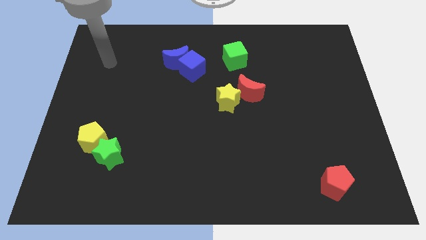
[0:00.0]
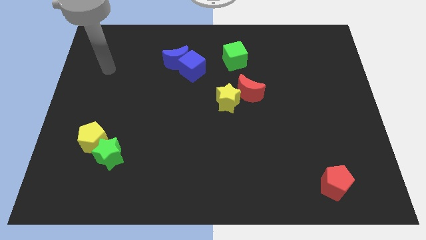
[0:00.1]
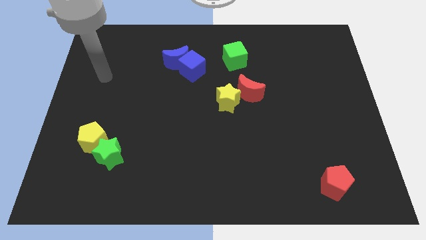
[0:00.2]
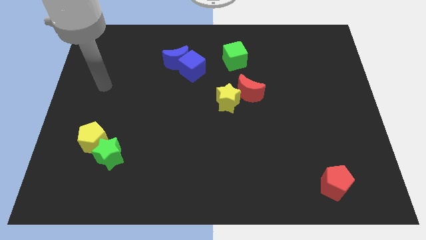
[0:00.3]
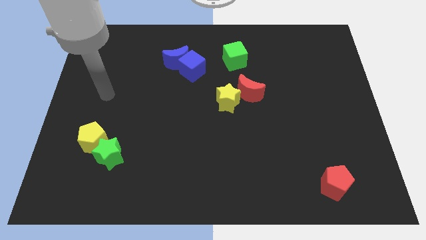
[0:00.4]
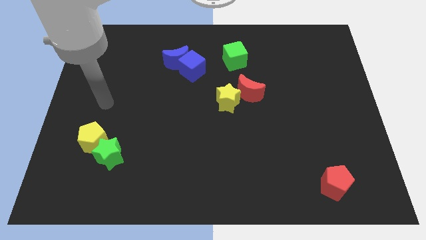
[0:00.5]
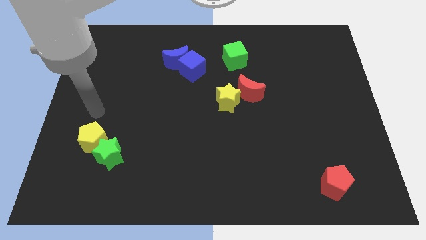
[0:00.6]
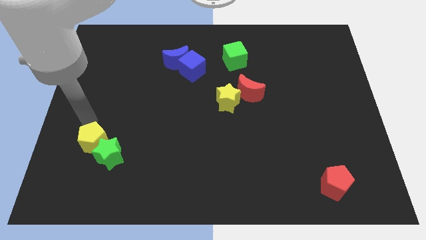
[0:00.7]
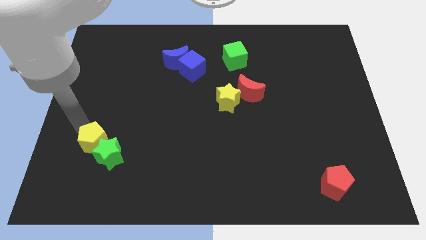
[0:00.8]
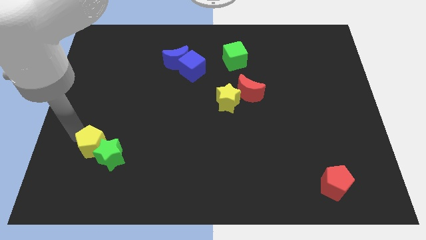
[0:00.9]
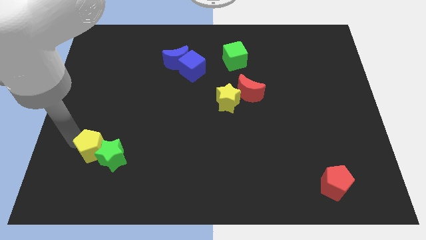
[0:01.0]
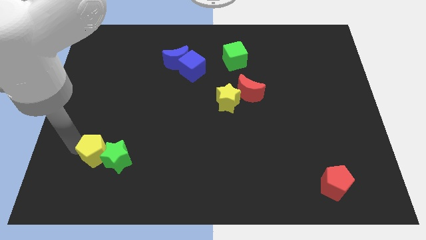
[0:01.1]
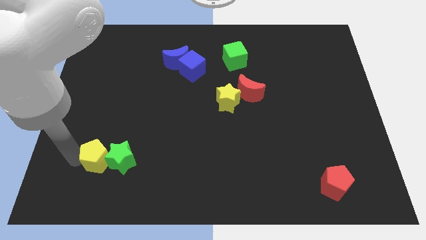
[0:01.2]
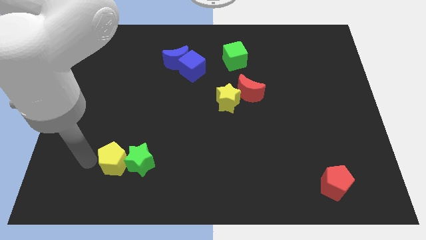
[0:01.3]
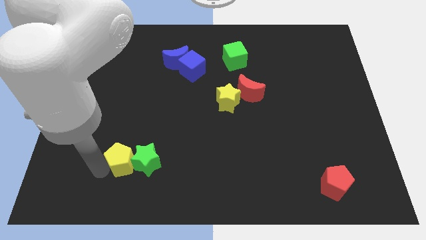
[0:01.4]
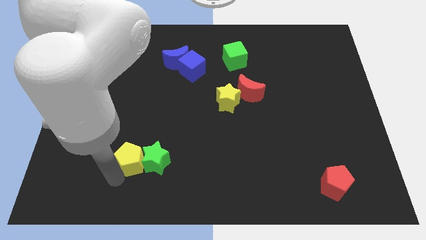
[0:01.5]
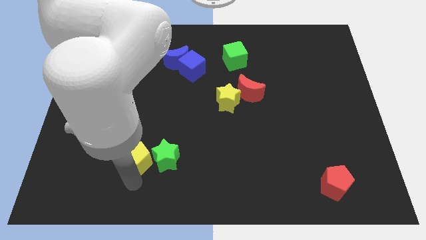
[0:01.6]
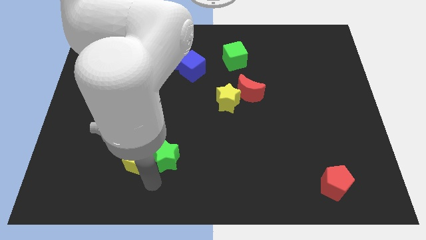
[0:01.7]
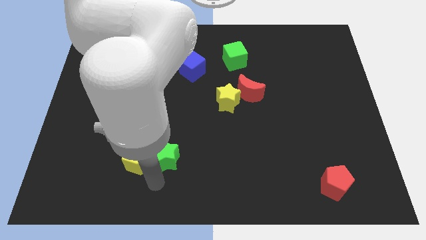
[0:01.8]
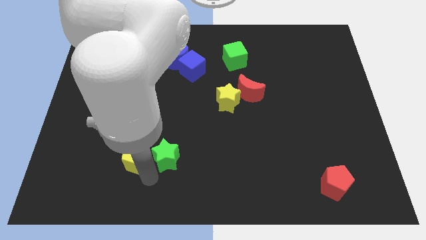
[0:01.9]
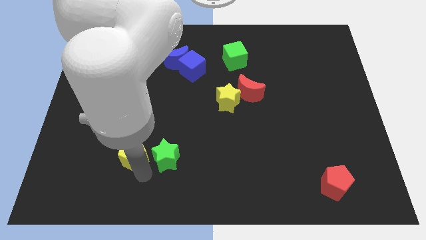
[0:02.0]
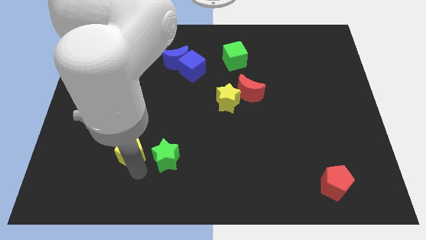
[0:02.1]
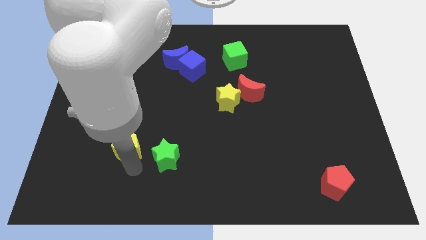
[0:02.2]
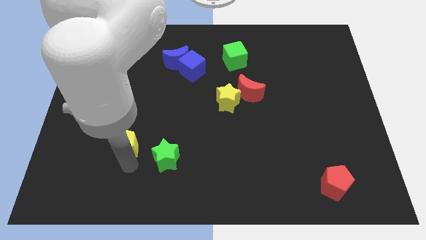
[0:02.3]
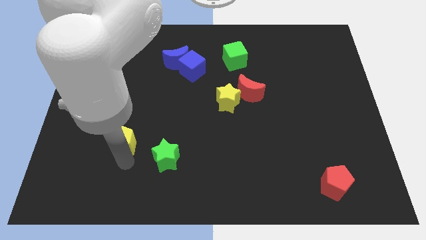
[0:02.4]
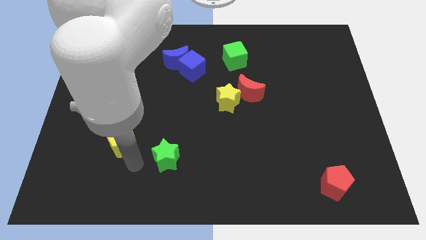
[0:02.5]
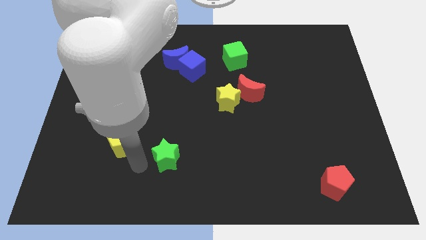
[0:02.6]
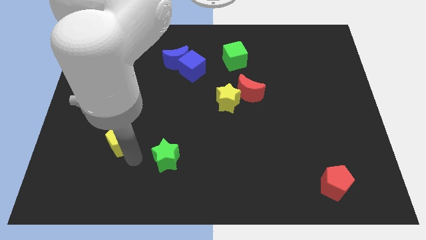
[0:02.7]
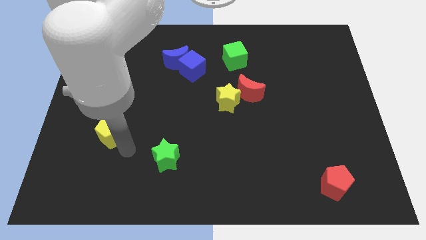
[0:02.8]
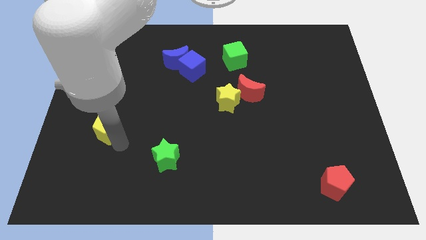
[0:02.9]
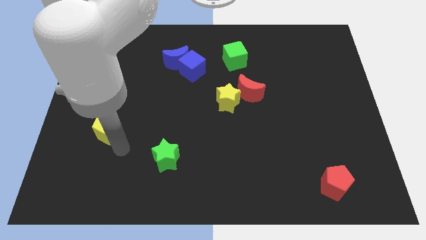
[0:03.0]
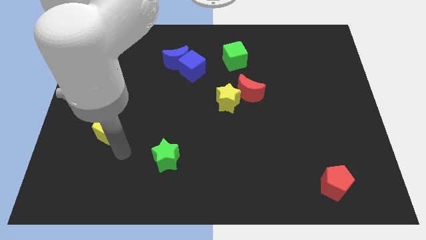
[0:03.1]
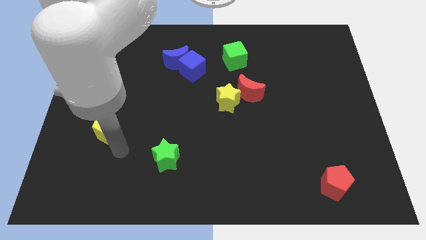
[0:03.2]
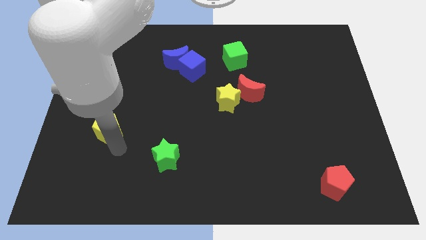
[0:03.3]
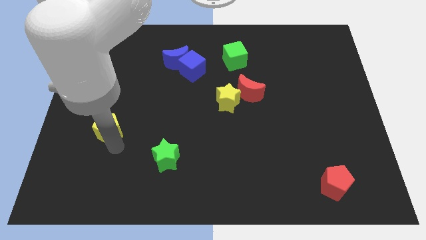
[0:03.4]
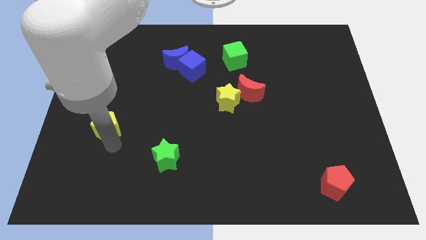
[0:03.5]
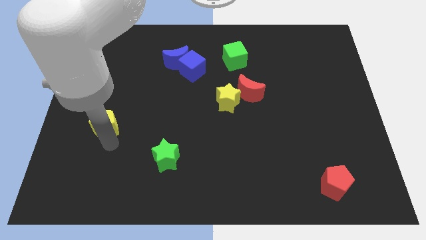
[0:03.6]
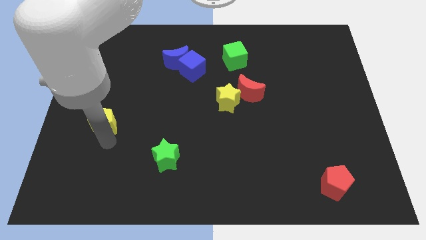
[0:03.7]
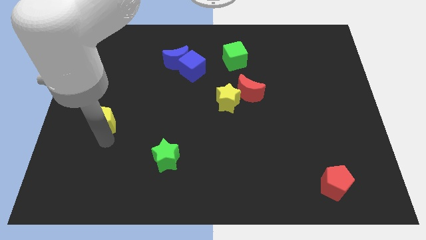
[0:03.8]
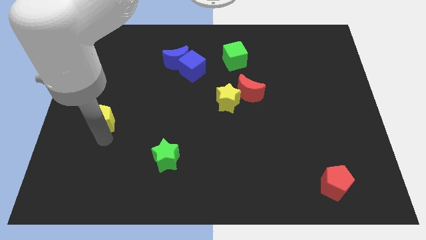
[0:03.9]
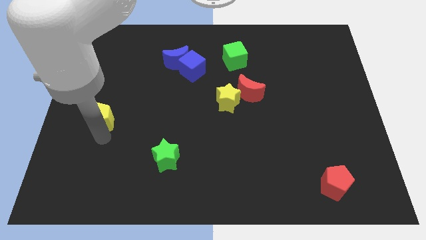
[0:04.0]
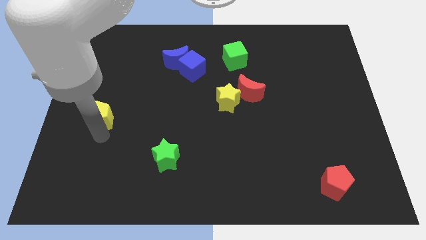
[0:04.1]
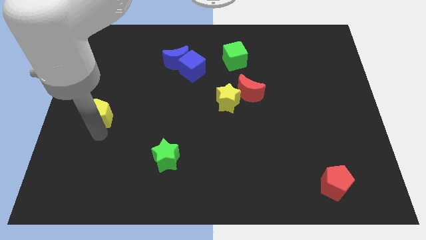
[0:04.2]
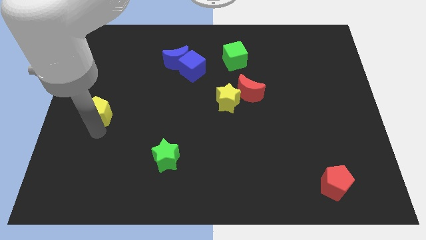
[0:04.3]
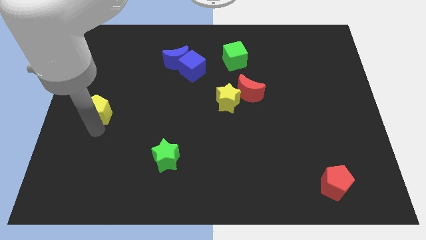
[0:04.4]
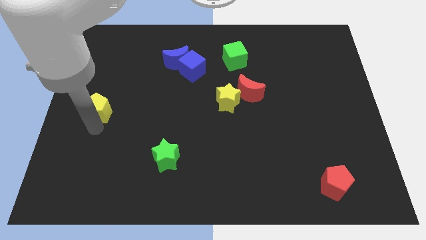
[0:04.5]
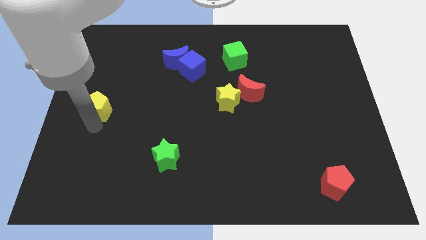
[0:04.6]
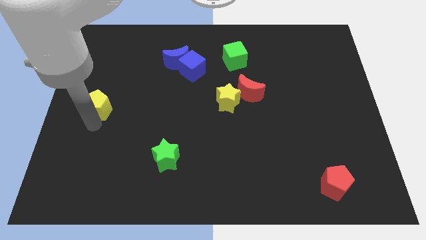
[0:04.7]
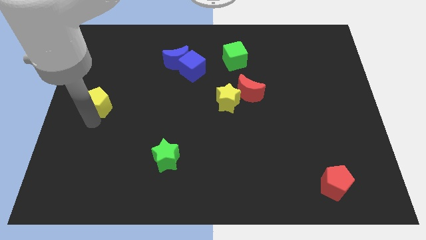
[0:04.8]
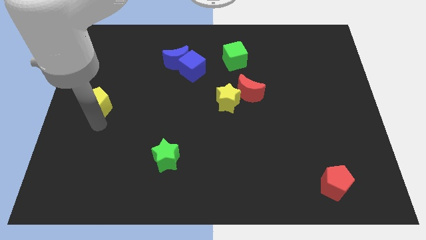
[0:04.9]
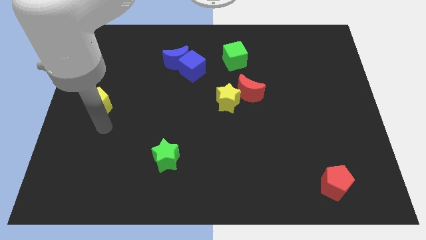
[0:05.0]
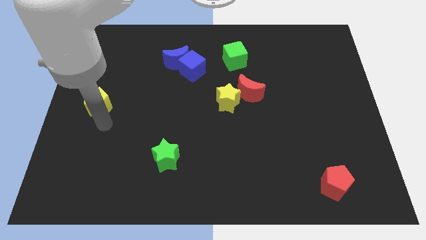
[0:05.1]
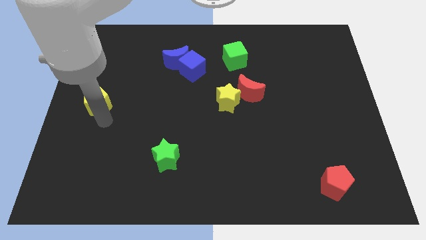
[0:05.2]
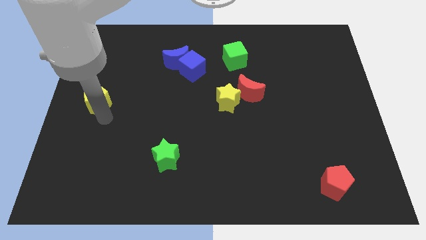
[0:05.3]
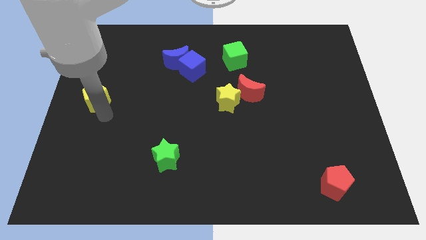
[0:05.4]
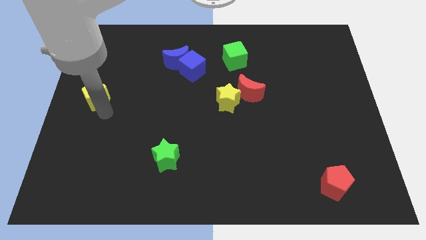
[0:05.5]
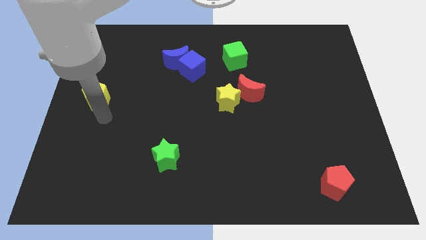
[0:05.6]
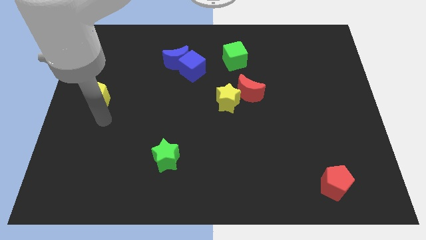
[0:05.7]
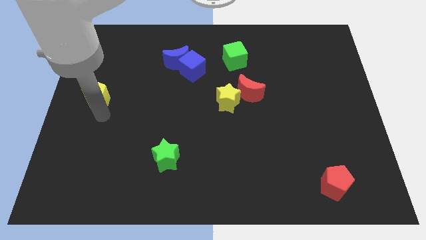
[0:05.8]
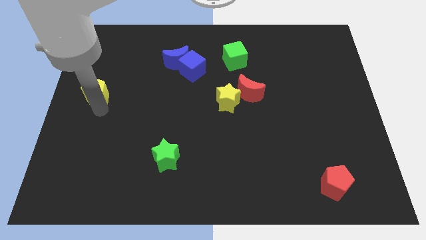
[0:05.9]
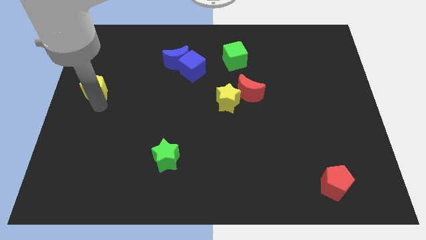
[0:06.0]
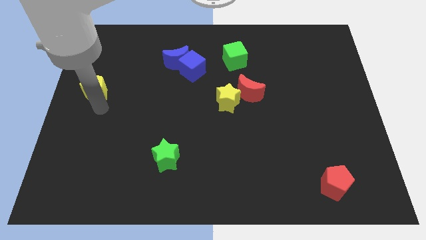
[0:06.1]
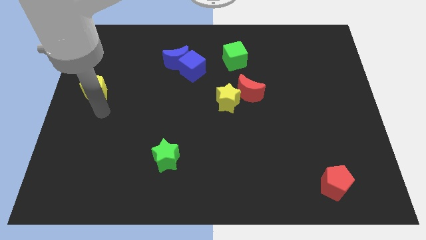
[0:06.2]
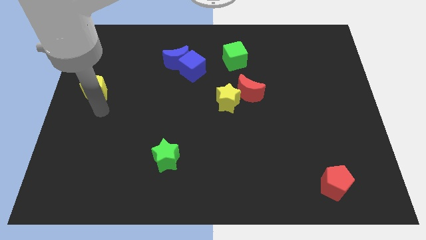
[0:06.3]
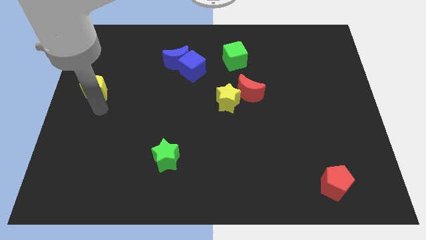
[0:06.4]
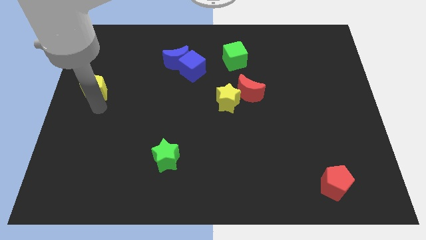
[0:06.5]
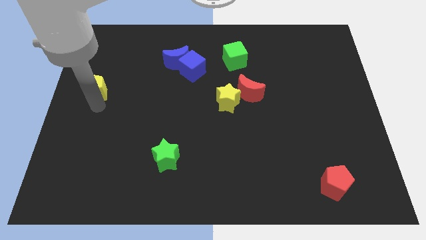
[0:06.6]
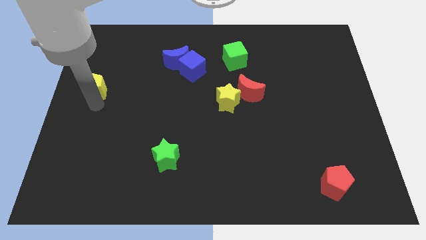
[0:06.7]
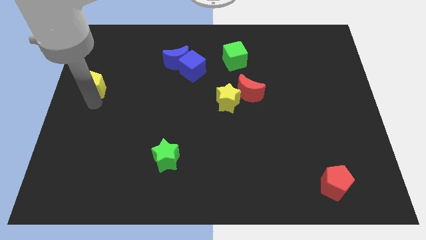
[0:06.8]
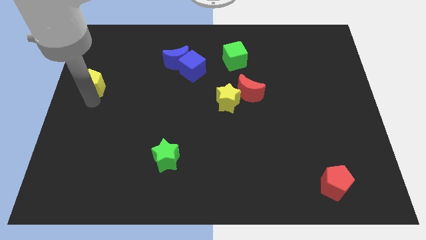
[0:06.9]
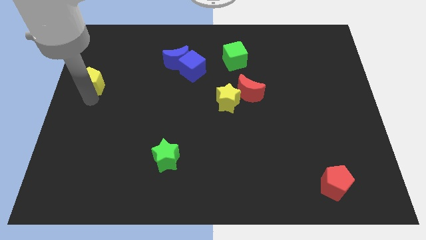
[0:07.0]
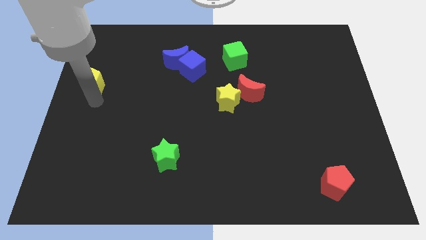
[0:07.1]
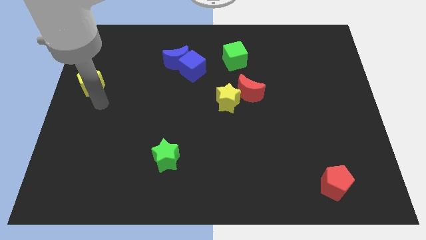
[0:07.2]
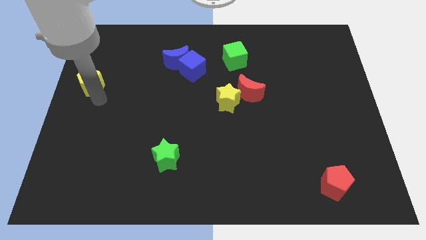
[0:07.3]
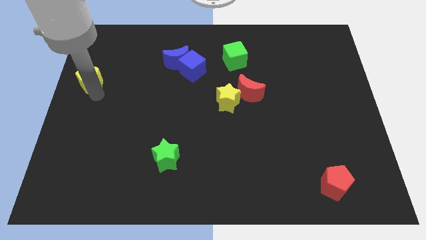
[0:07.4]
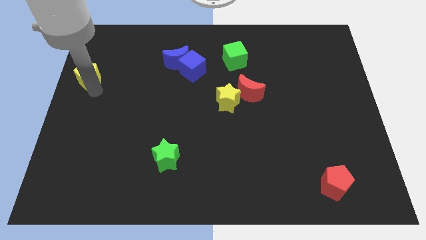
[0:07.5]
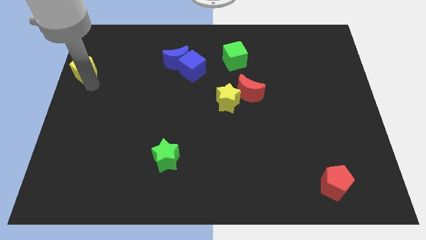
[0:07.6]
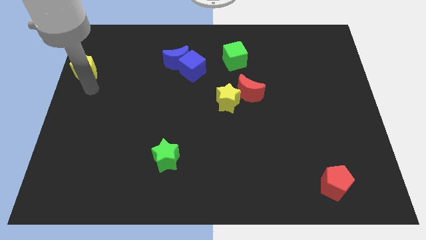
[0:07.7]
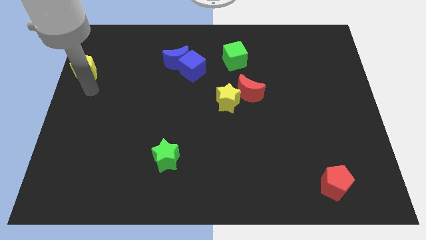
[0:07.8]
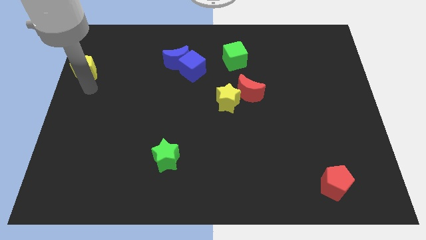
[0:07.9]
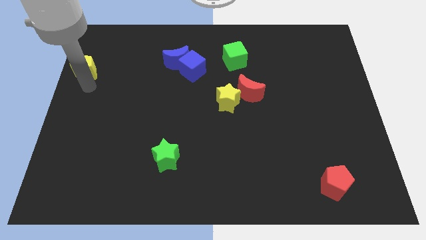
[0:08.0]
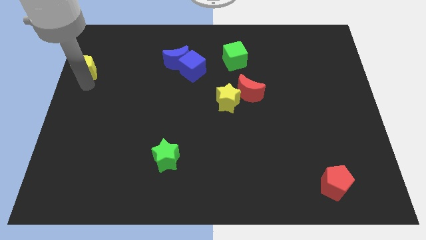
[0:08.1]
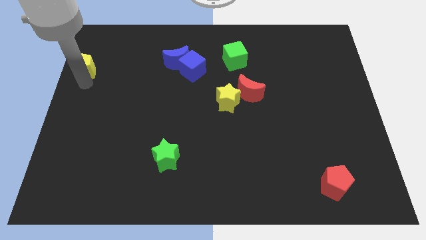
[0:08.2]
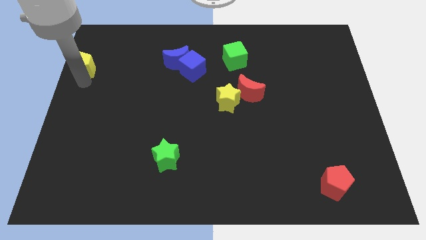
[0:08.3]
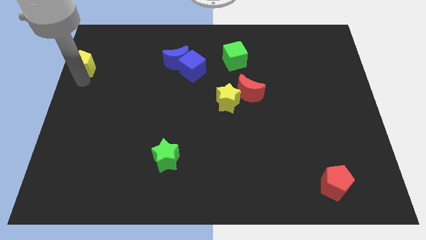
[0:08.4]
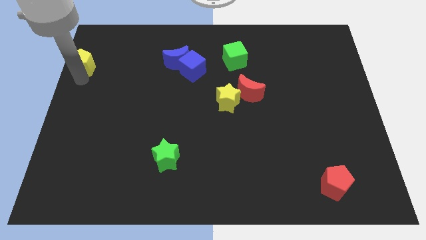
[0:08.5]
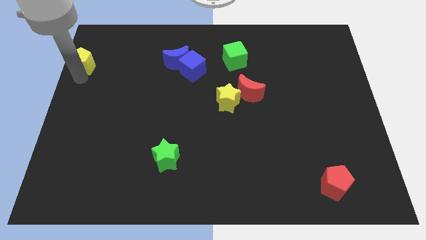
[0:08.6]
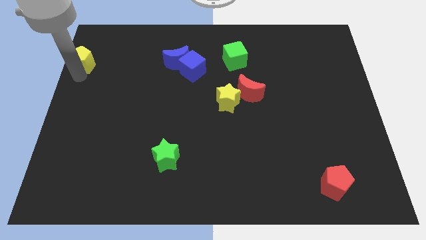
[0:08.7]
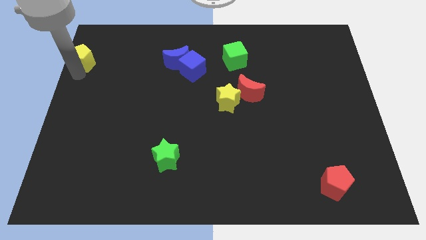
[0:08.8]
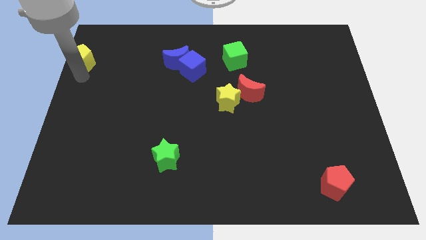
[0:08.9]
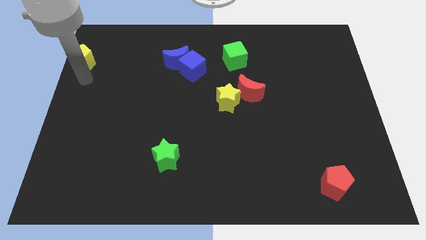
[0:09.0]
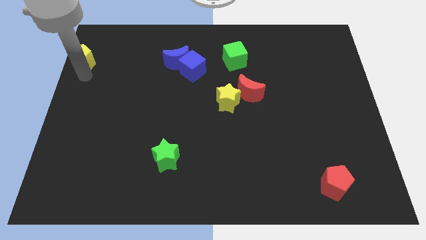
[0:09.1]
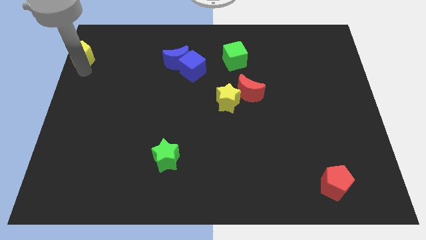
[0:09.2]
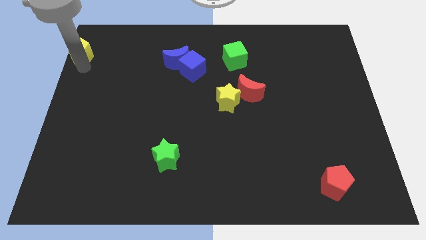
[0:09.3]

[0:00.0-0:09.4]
slide the yellow pentagon to the upper left corner
